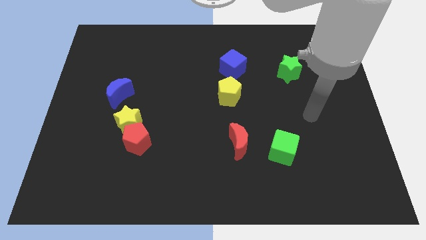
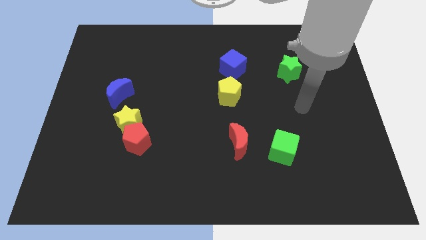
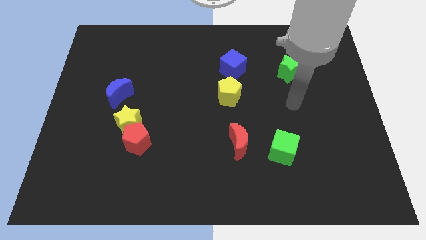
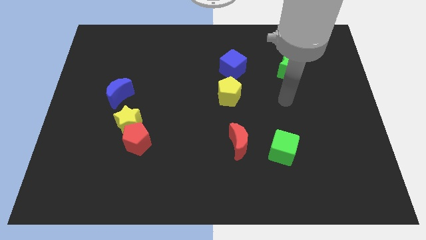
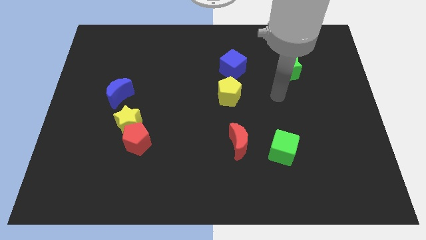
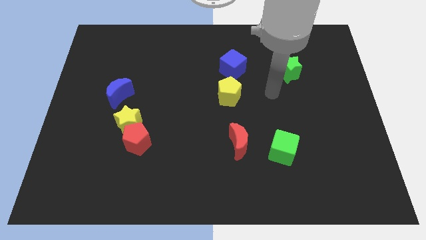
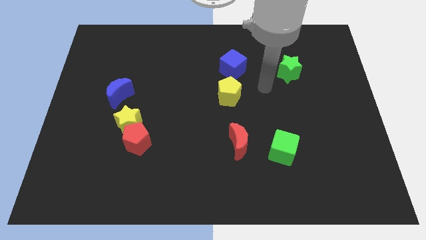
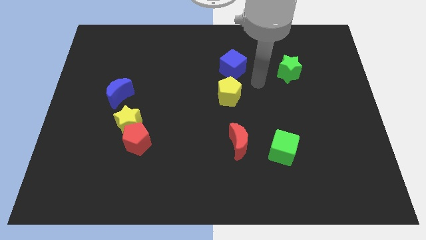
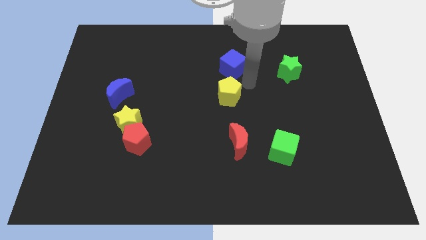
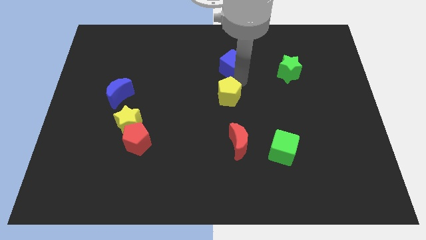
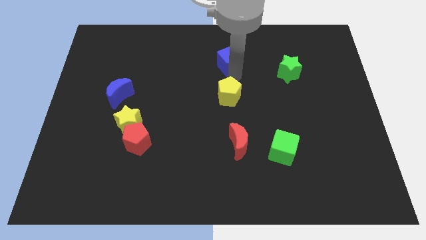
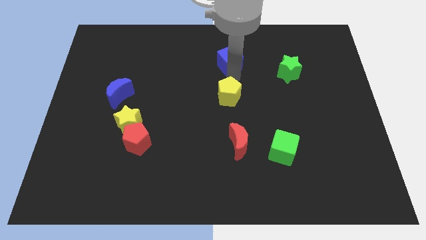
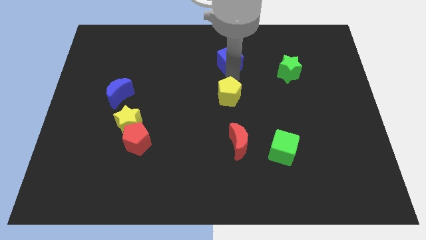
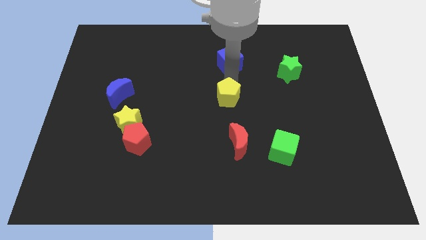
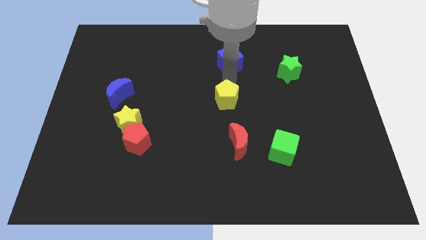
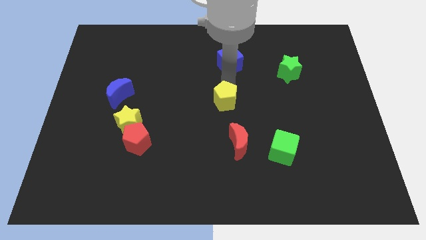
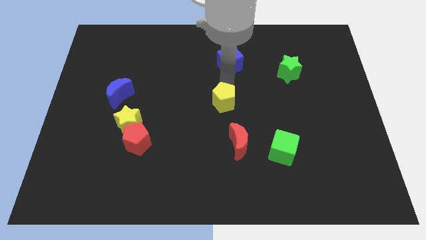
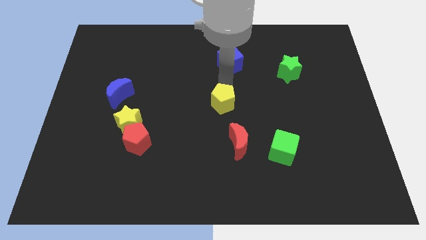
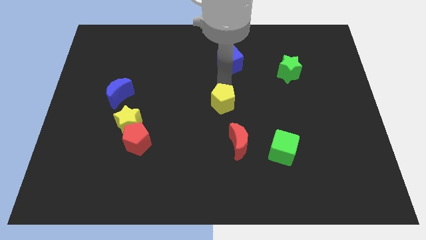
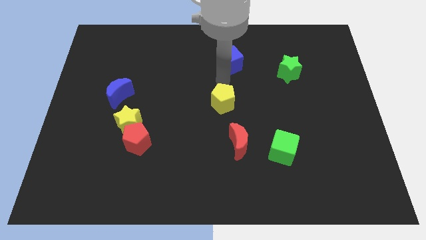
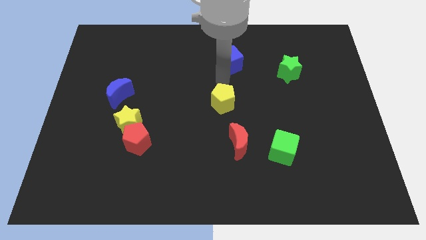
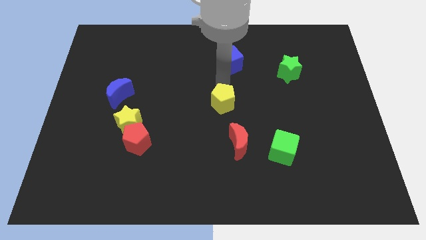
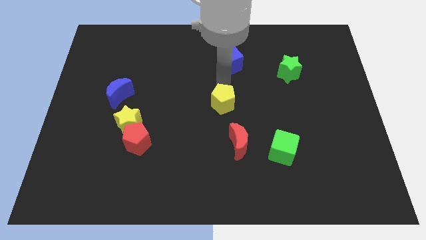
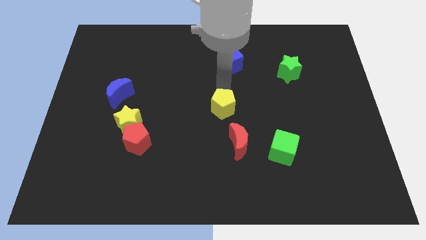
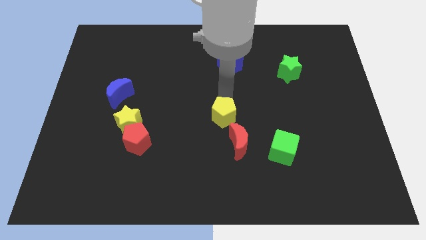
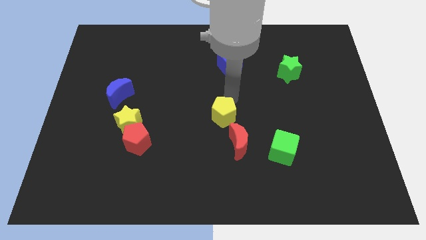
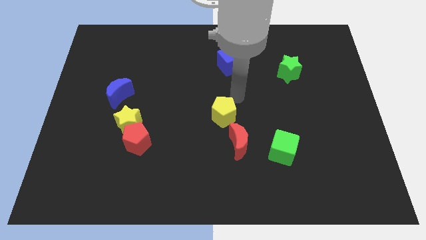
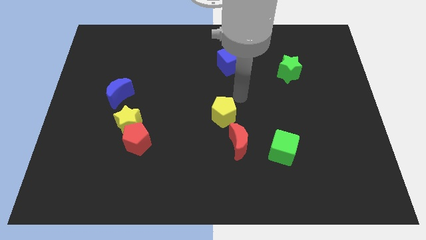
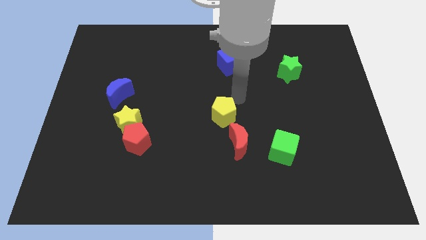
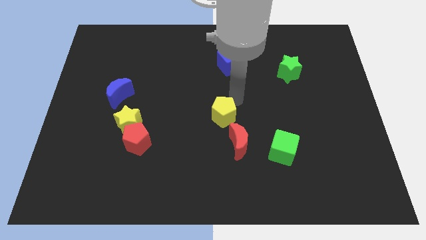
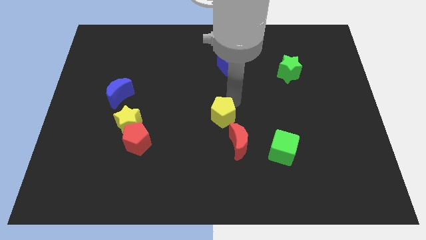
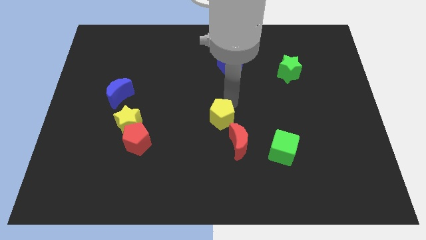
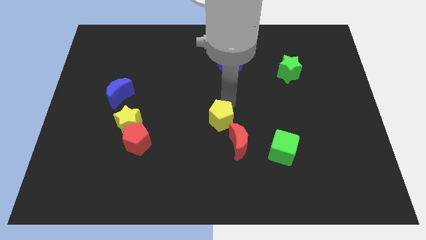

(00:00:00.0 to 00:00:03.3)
move the yellow pentagon down somewhat

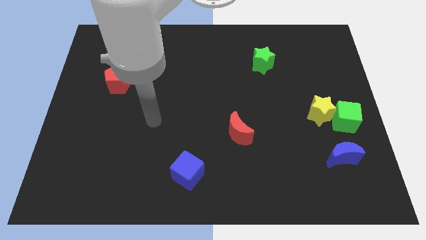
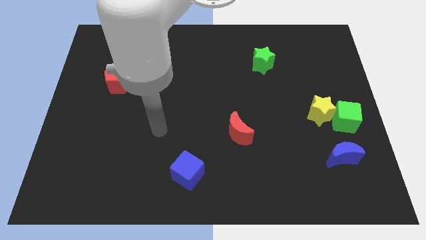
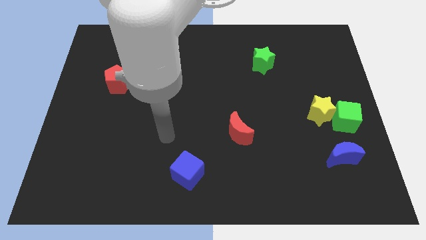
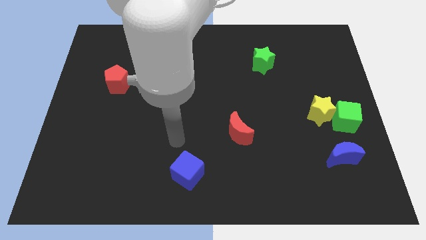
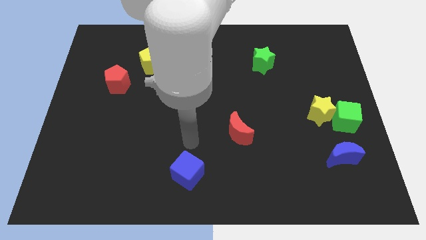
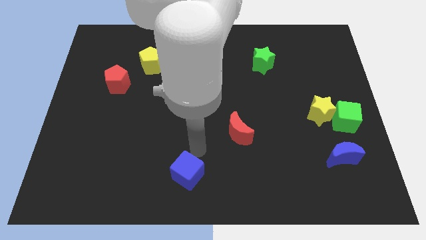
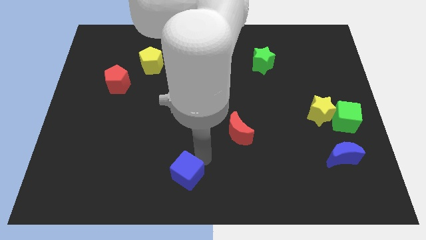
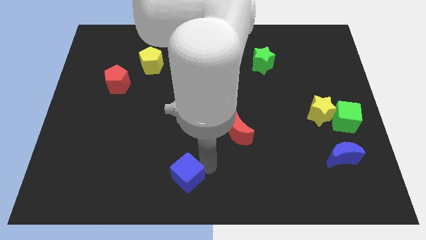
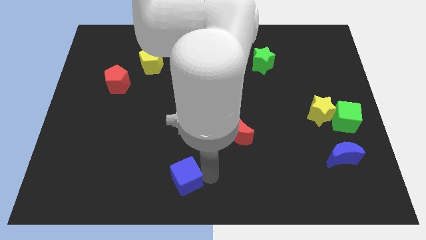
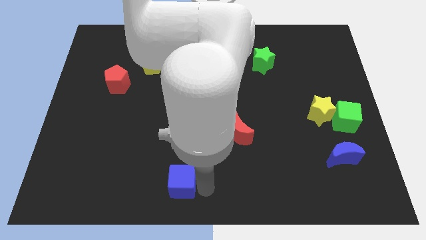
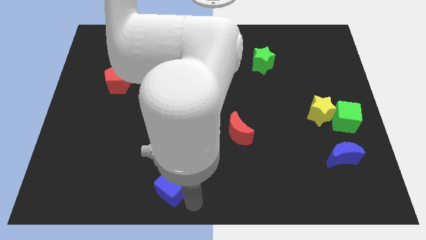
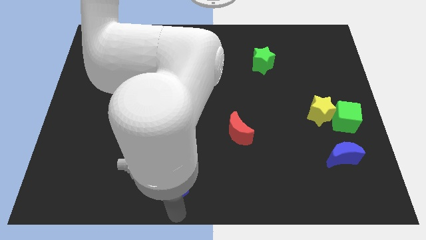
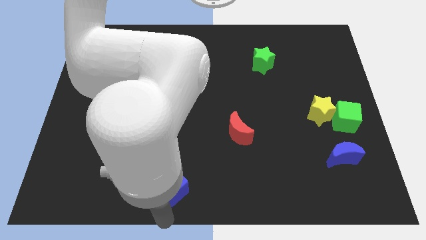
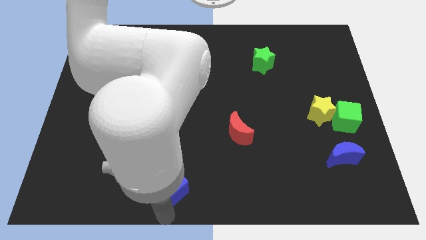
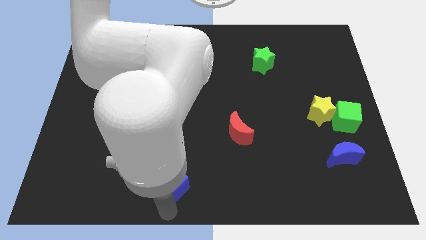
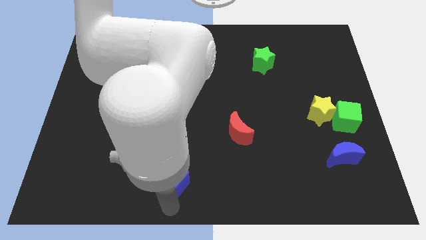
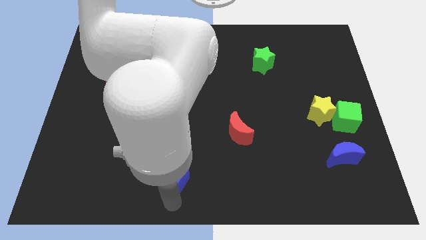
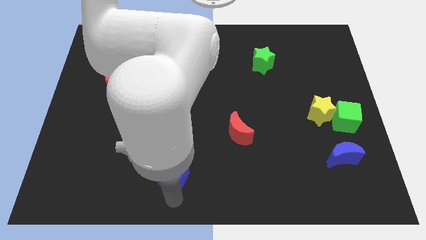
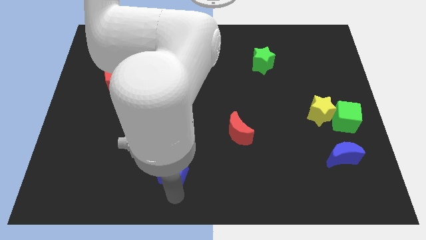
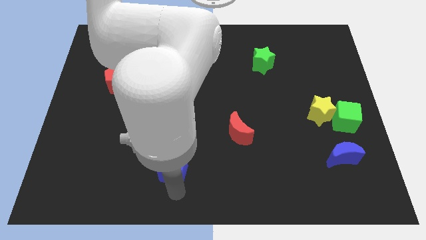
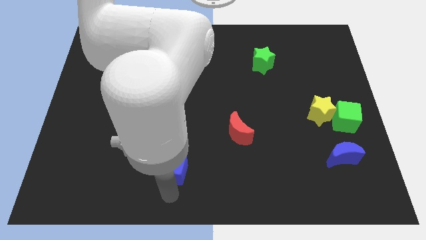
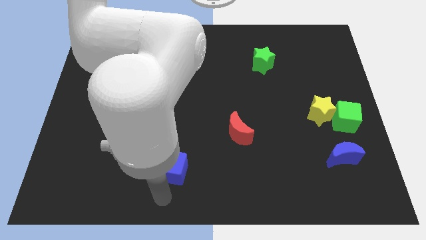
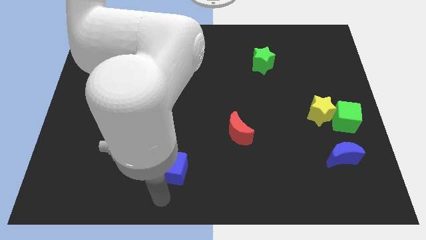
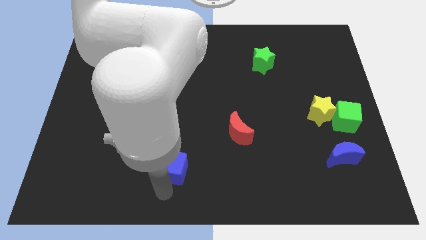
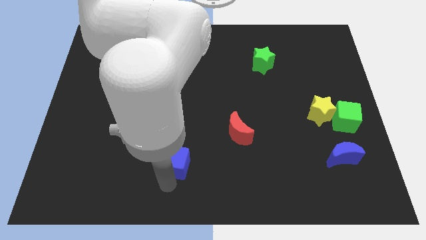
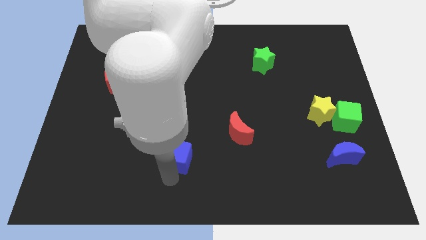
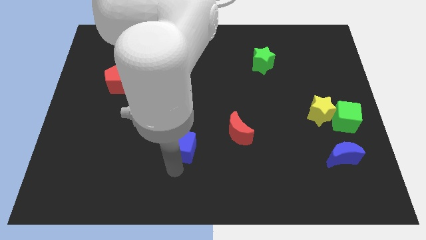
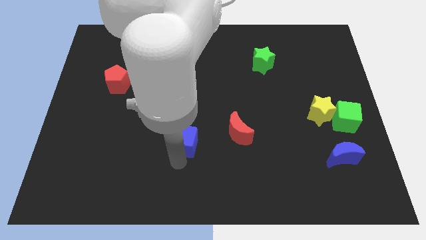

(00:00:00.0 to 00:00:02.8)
slide the blue cube up a bit

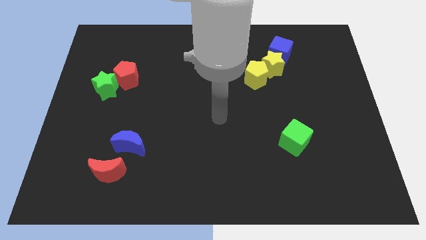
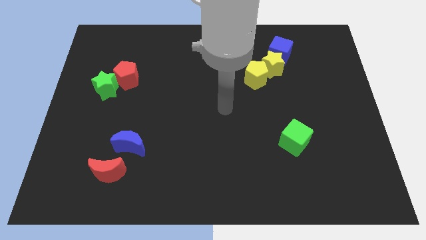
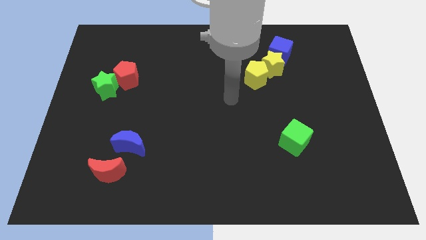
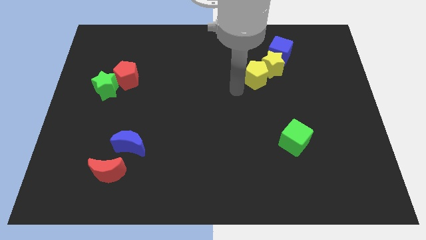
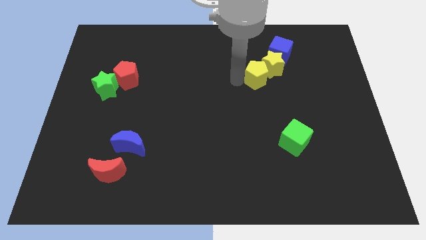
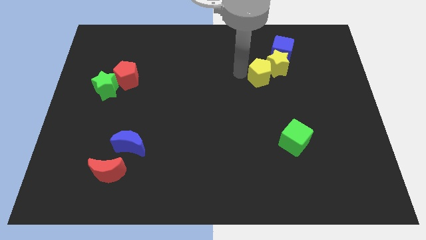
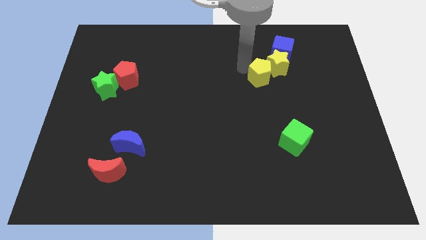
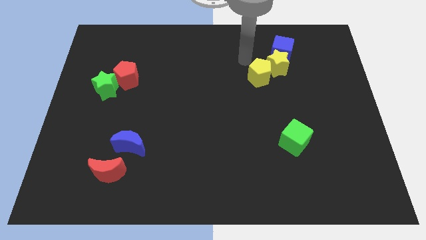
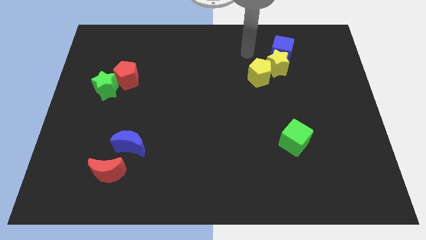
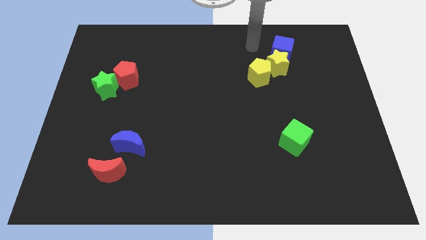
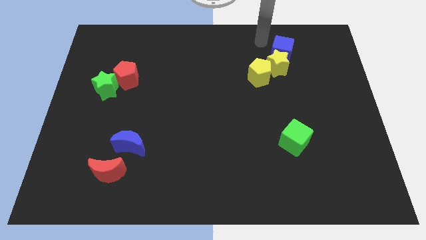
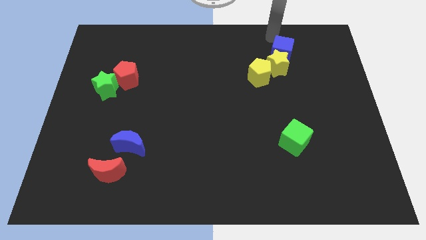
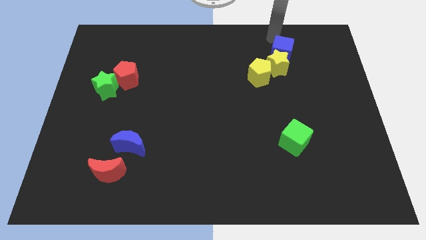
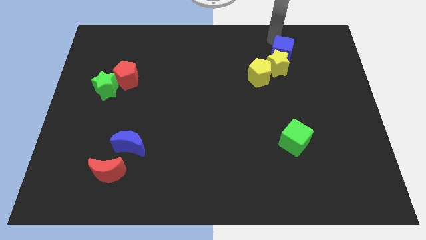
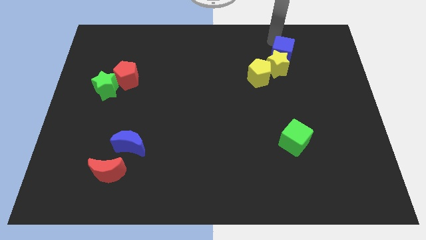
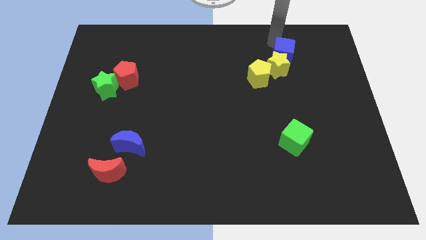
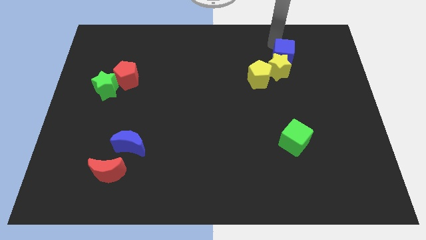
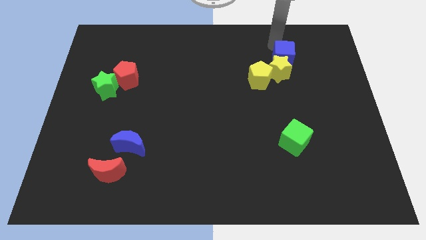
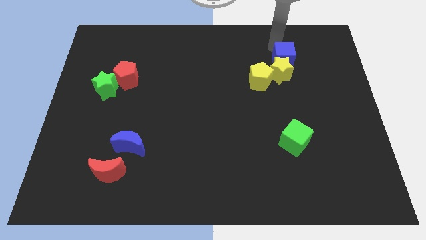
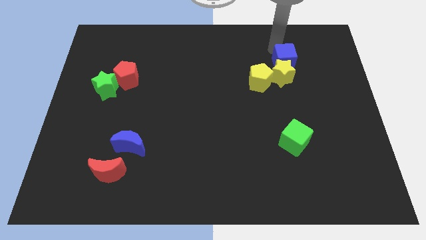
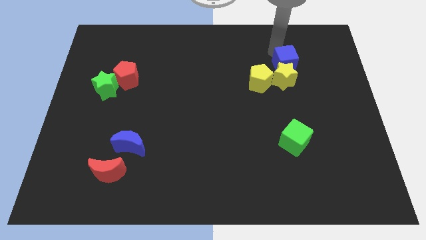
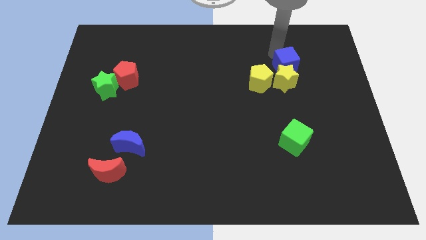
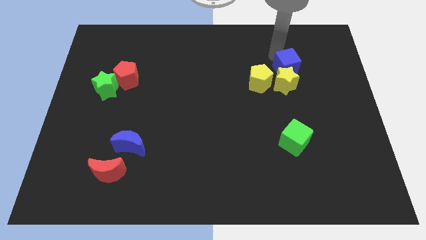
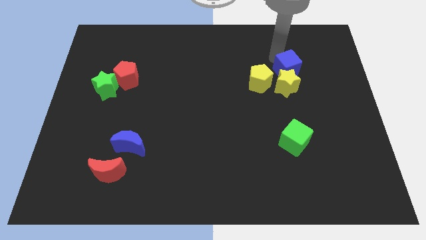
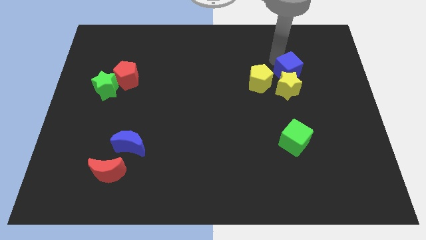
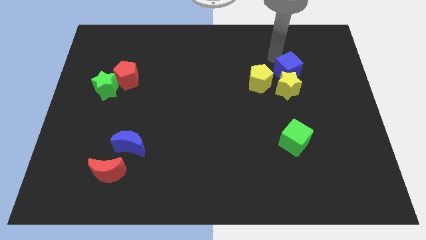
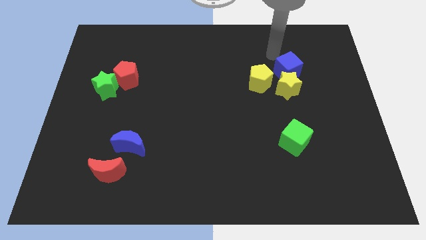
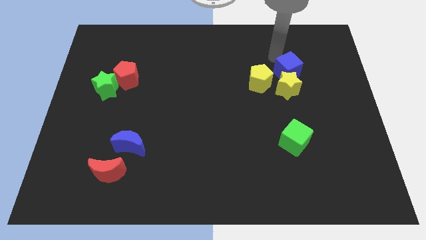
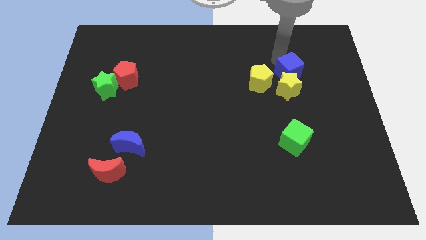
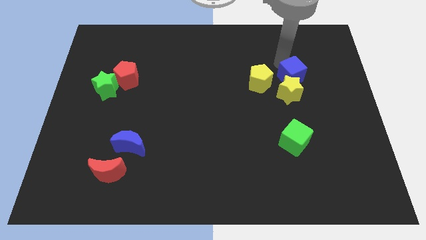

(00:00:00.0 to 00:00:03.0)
slide the blue cube somewhat downwards
